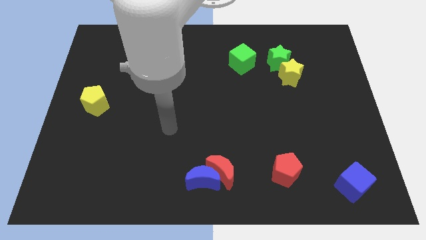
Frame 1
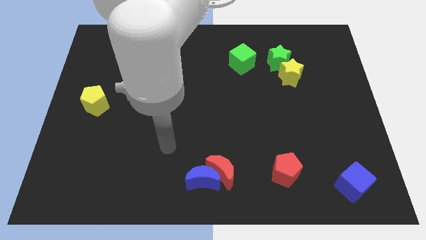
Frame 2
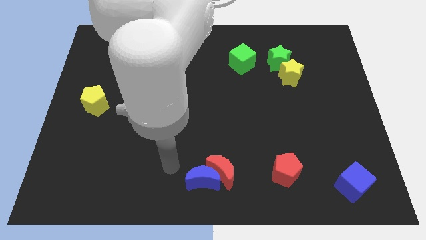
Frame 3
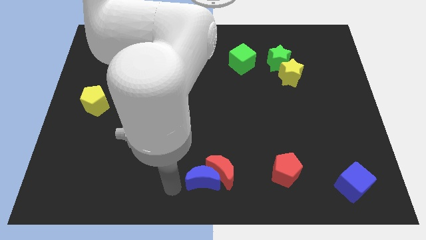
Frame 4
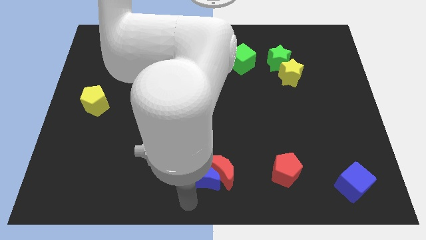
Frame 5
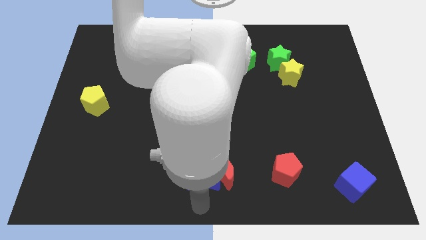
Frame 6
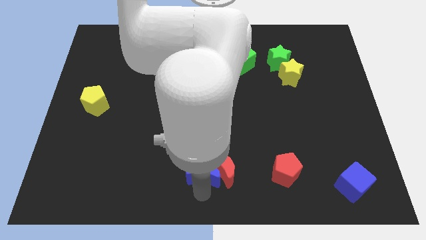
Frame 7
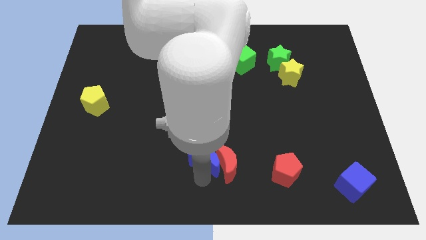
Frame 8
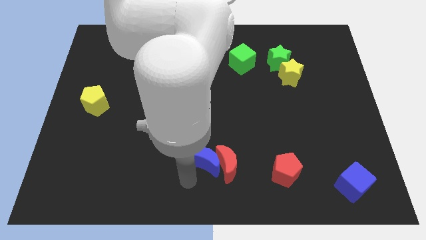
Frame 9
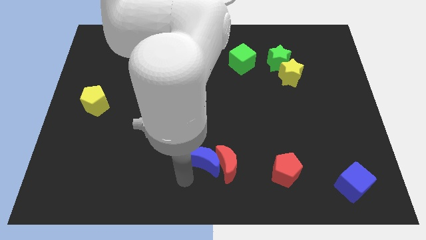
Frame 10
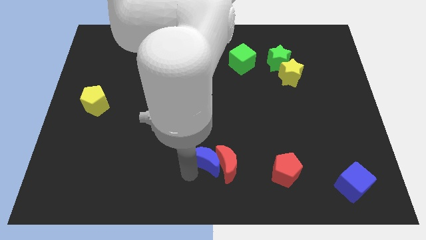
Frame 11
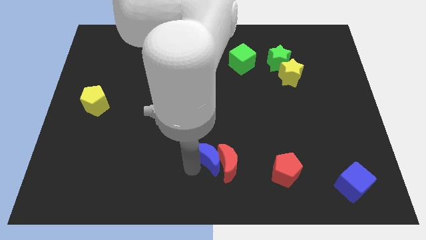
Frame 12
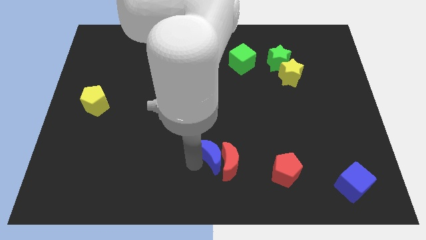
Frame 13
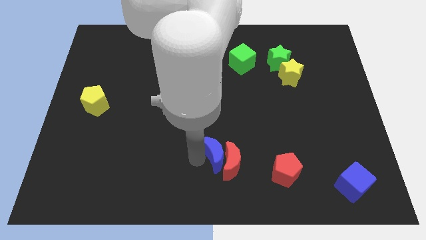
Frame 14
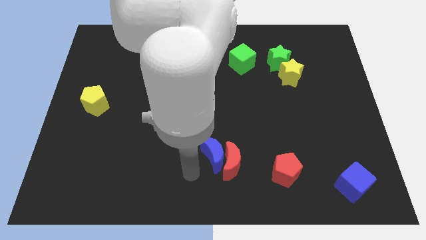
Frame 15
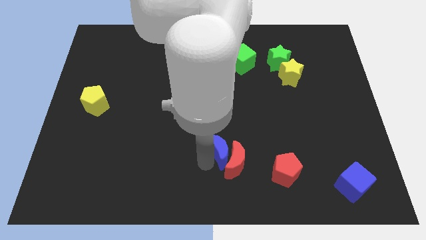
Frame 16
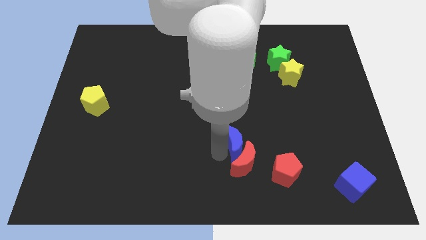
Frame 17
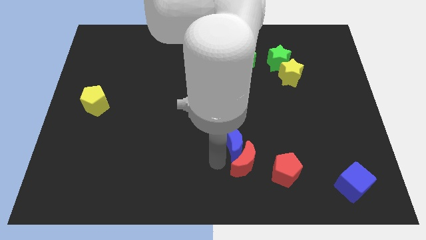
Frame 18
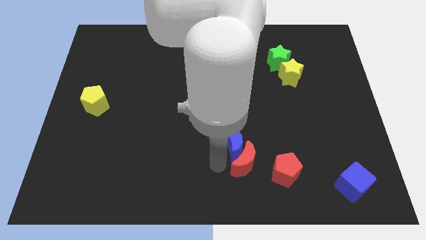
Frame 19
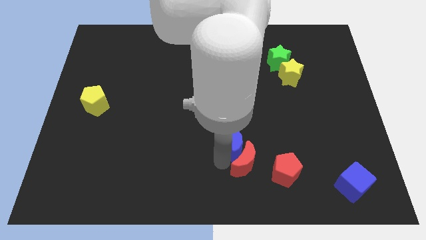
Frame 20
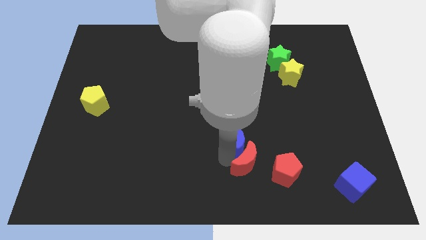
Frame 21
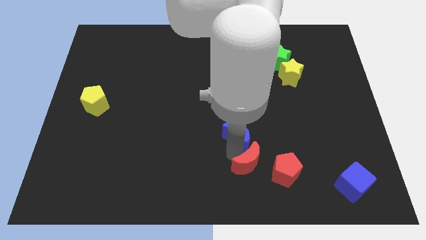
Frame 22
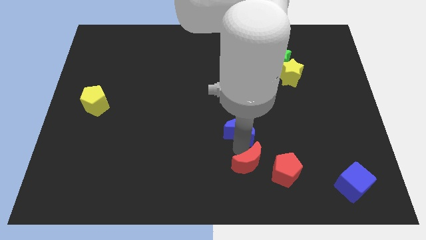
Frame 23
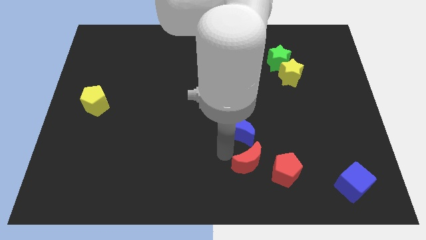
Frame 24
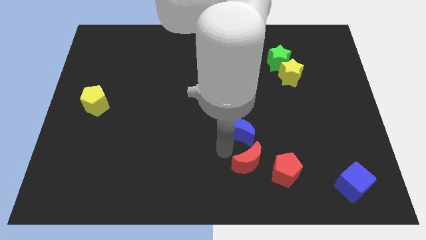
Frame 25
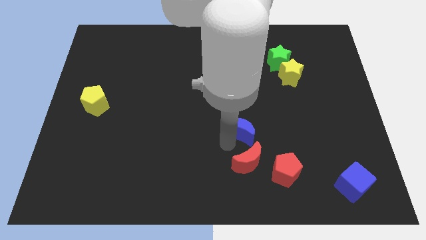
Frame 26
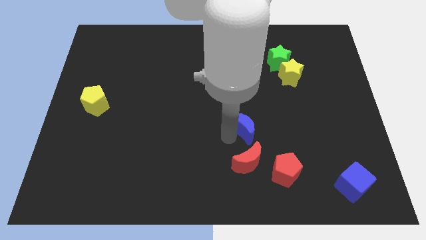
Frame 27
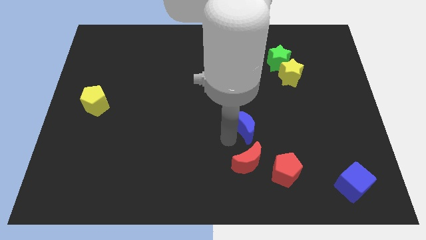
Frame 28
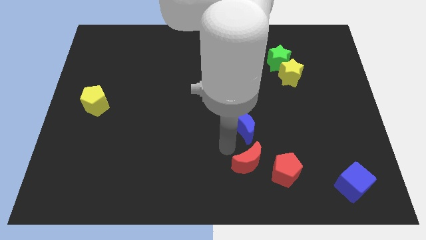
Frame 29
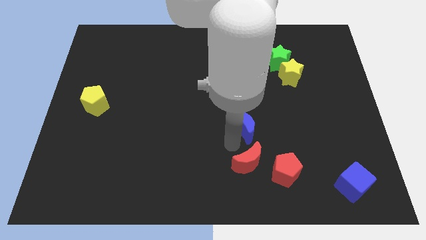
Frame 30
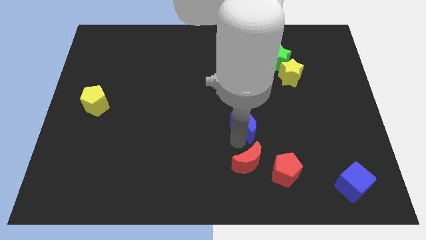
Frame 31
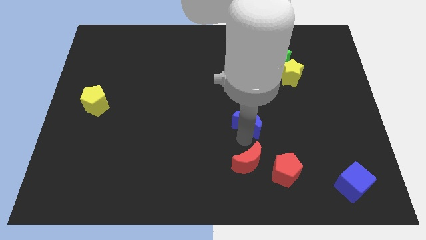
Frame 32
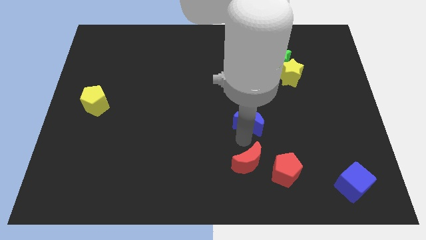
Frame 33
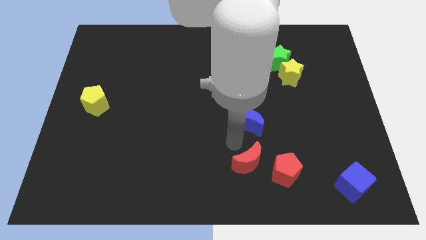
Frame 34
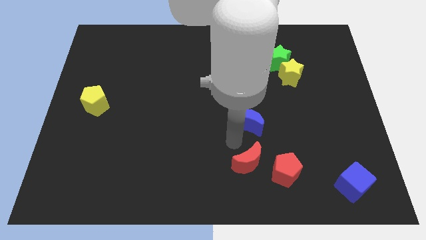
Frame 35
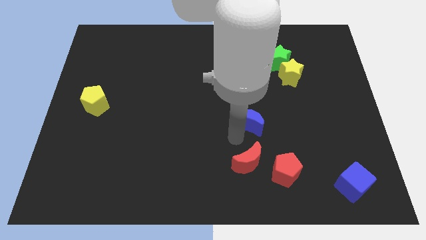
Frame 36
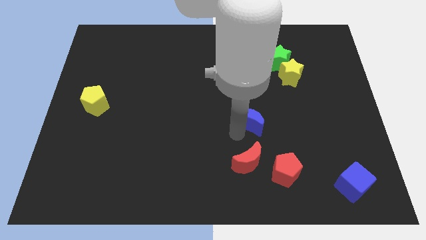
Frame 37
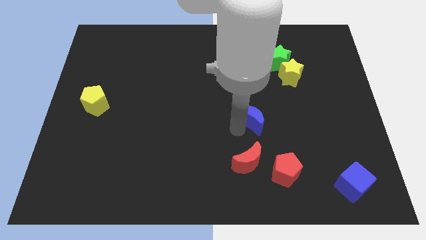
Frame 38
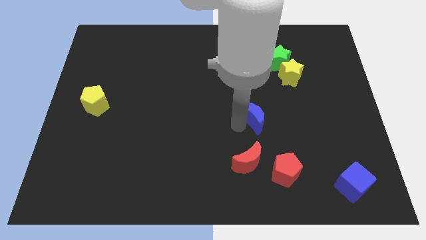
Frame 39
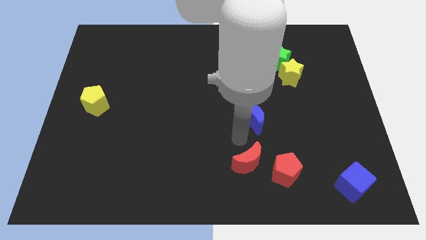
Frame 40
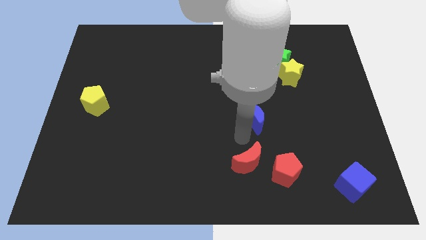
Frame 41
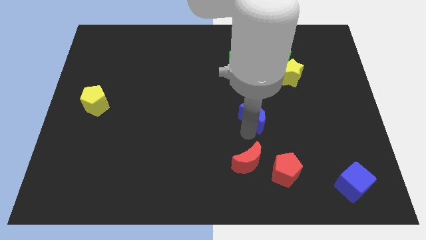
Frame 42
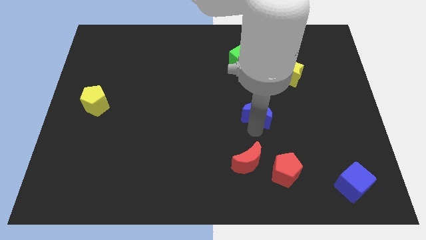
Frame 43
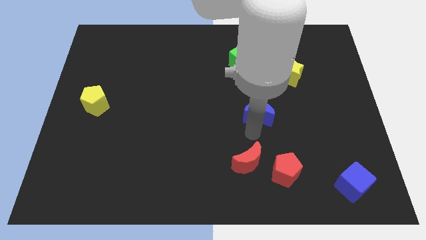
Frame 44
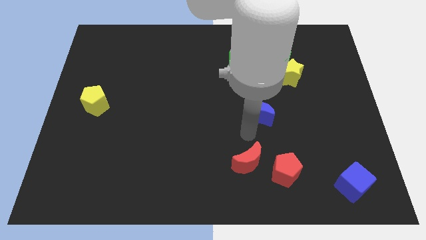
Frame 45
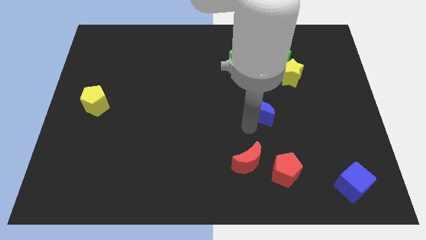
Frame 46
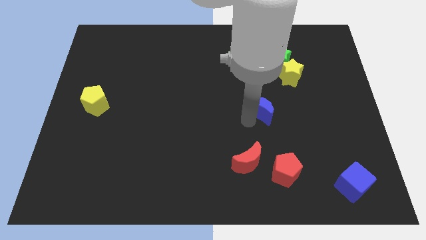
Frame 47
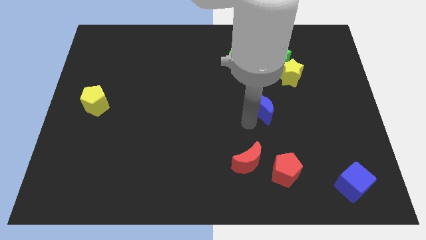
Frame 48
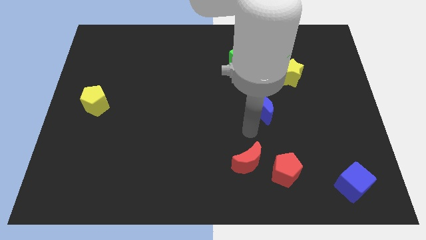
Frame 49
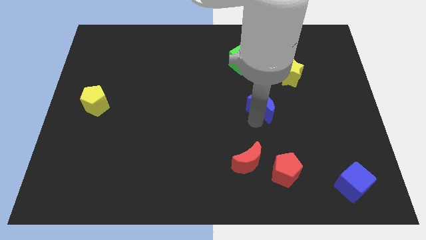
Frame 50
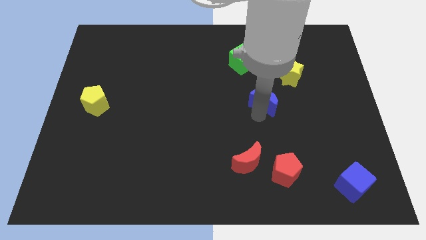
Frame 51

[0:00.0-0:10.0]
push the blue moon to the bottom left side of the yellow star

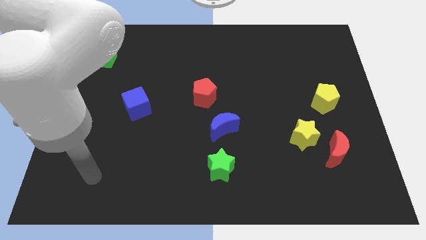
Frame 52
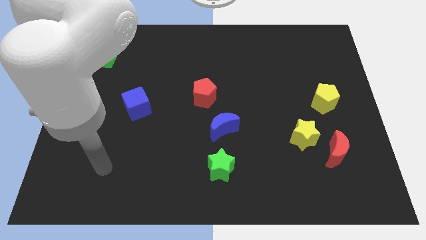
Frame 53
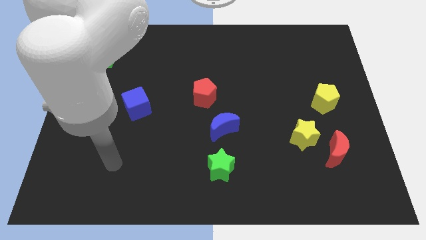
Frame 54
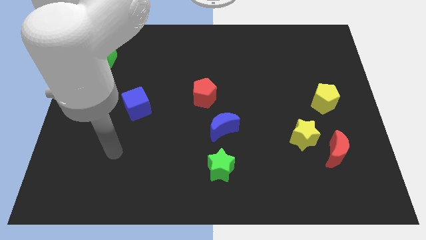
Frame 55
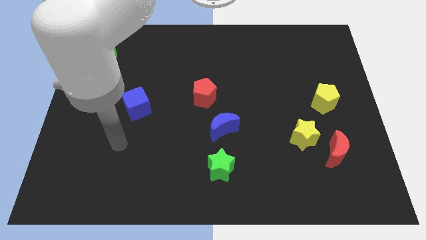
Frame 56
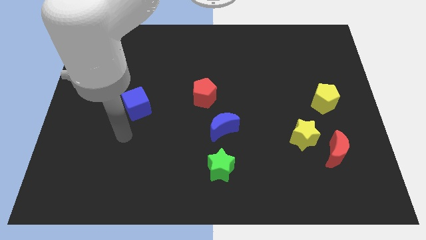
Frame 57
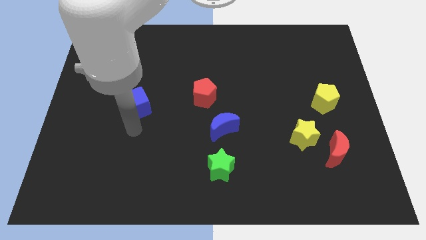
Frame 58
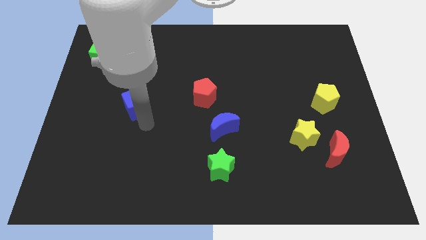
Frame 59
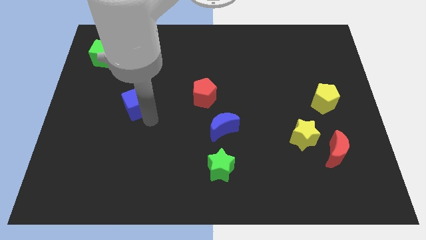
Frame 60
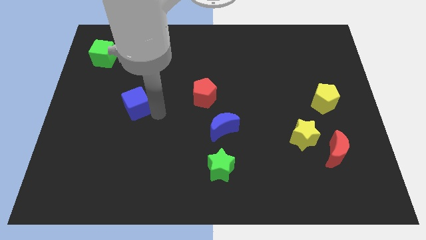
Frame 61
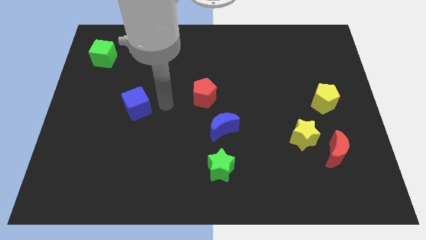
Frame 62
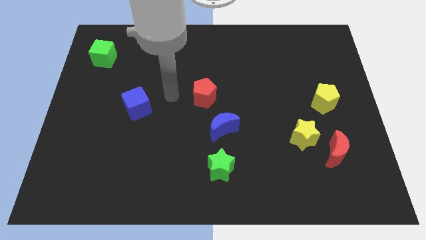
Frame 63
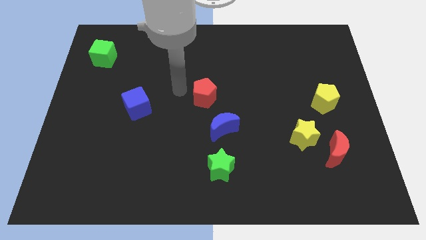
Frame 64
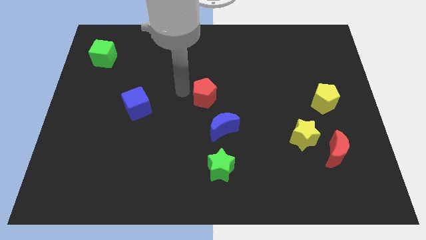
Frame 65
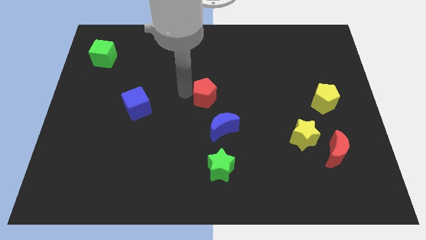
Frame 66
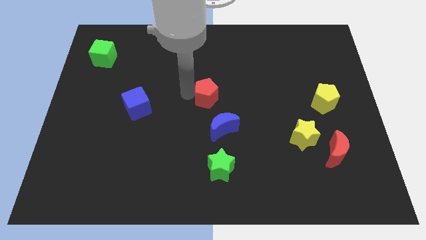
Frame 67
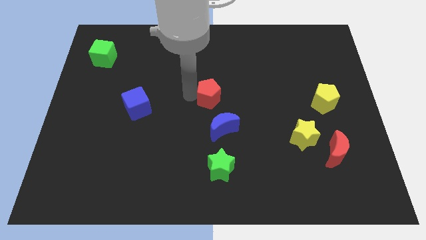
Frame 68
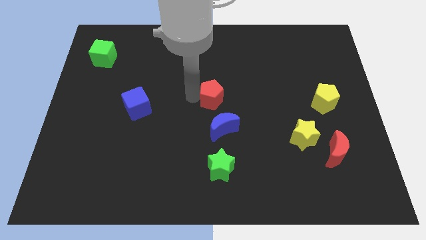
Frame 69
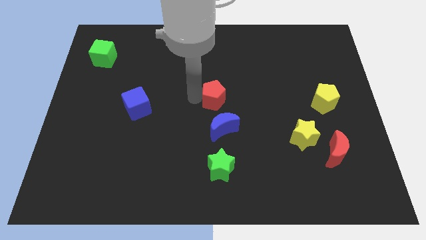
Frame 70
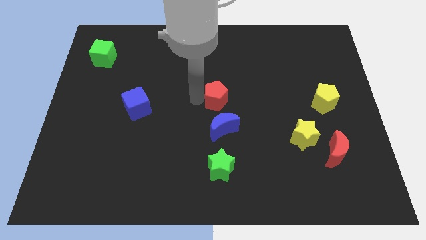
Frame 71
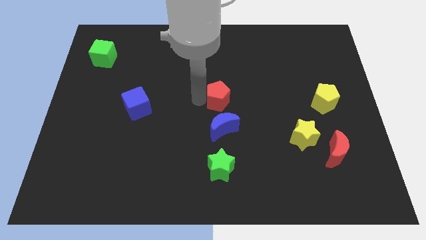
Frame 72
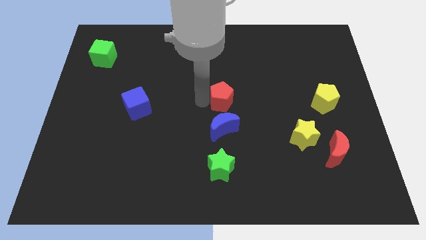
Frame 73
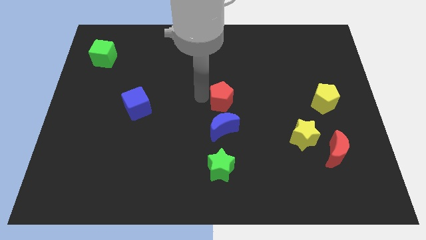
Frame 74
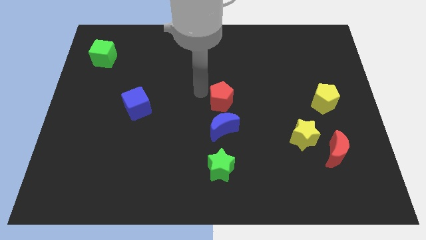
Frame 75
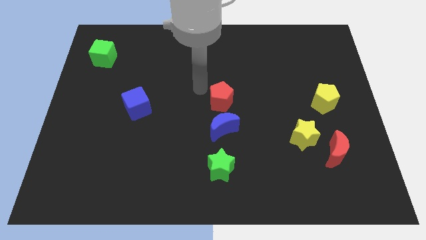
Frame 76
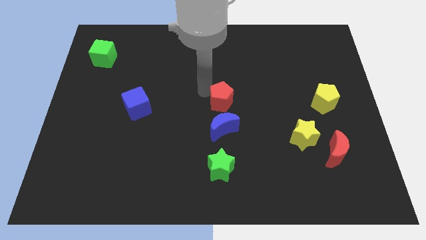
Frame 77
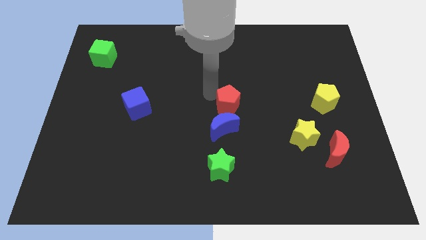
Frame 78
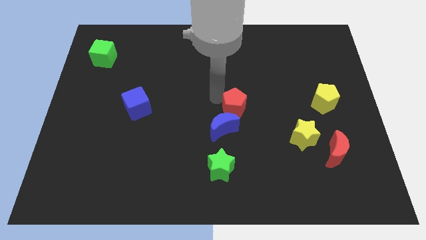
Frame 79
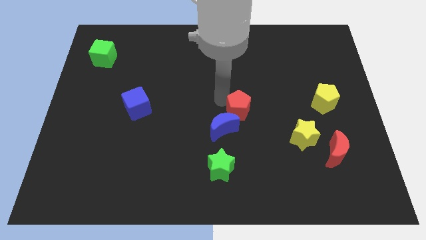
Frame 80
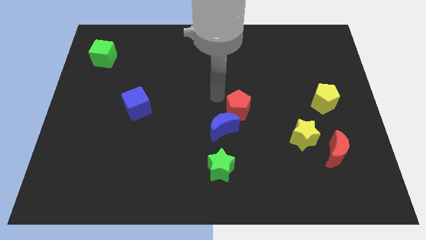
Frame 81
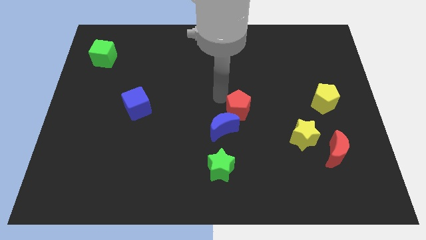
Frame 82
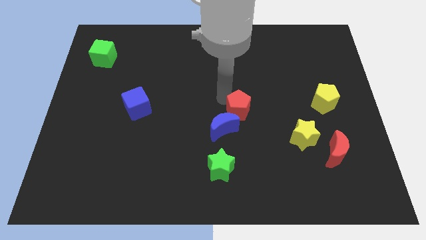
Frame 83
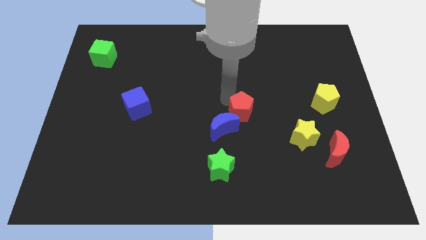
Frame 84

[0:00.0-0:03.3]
push the red pentagon to the right side of the blue moon
